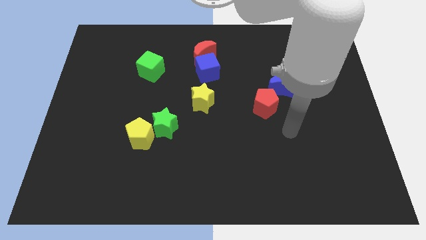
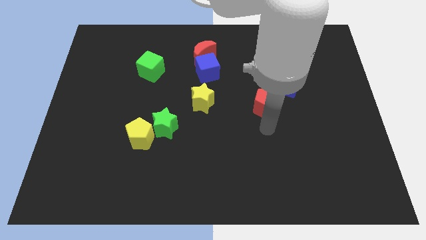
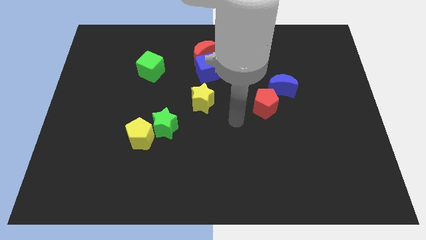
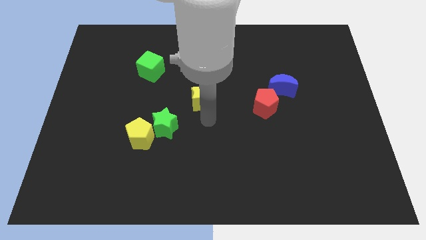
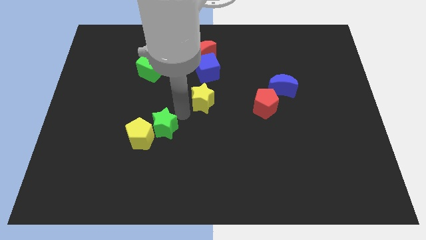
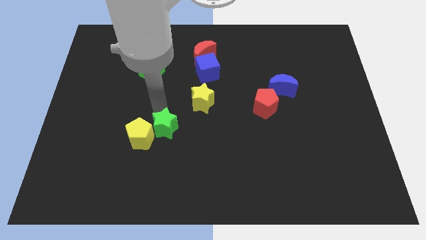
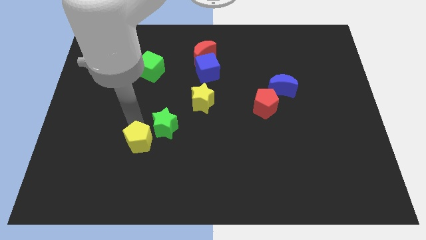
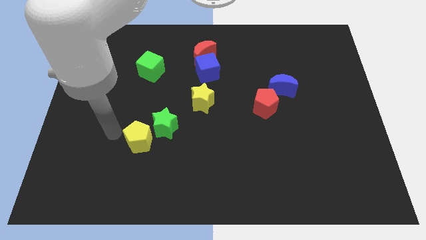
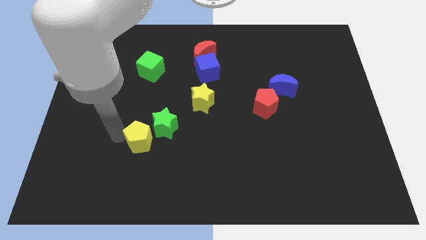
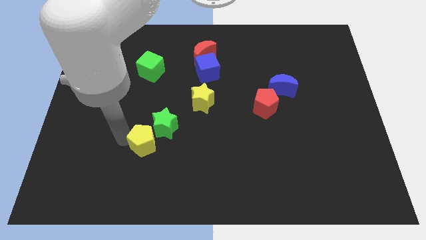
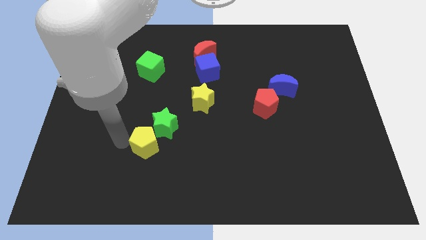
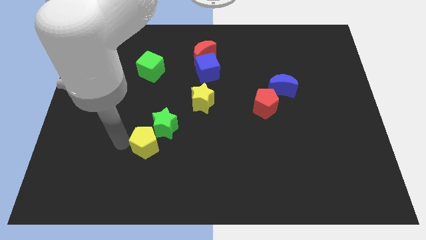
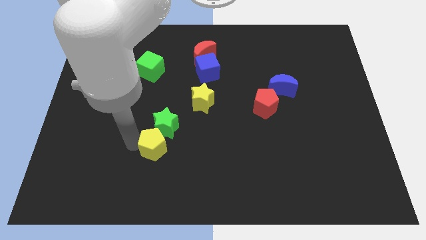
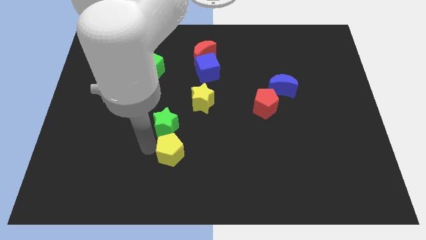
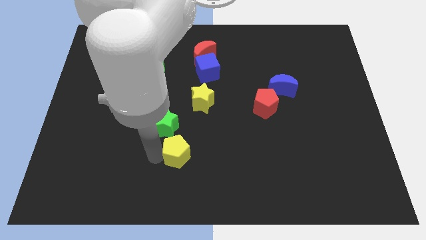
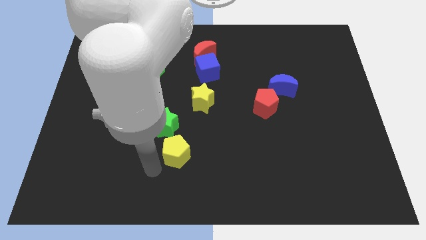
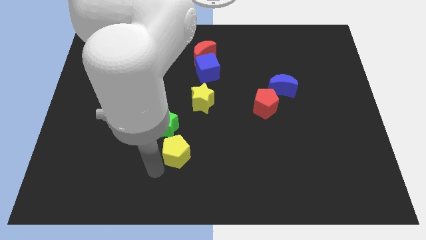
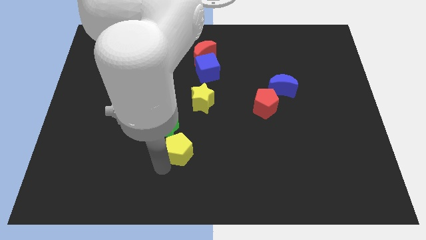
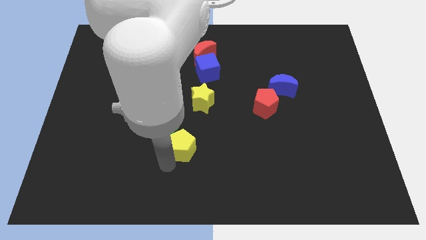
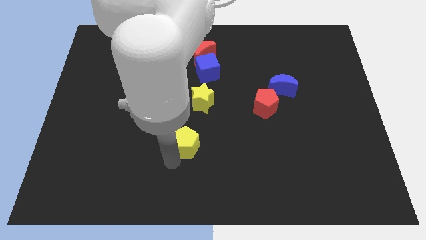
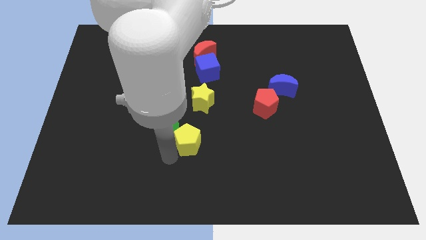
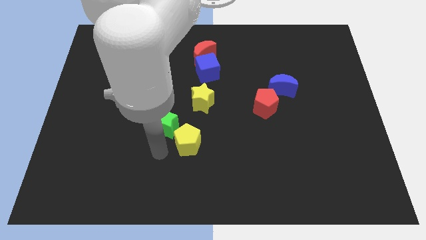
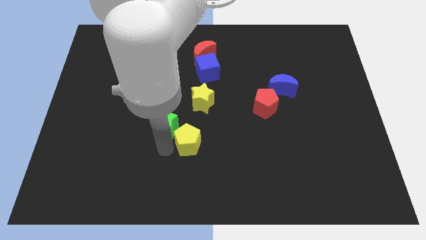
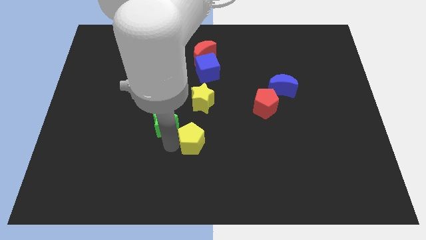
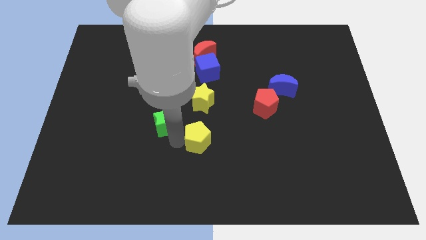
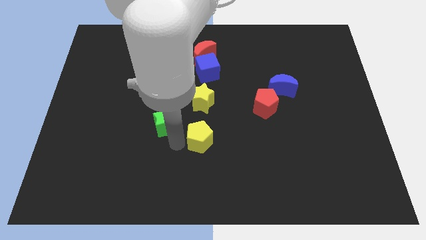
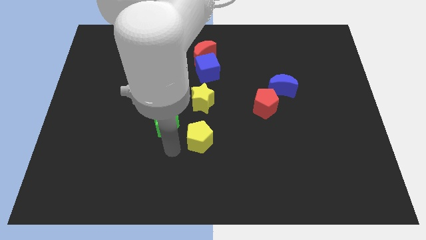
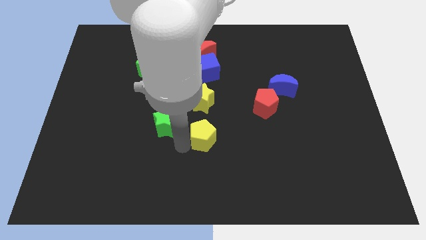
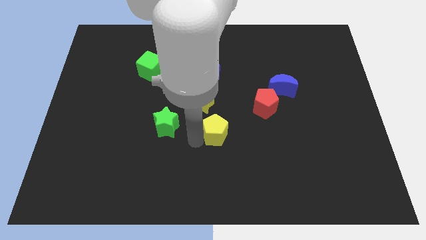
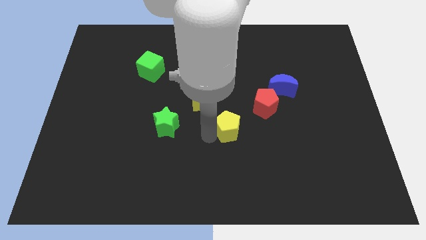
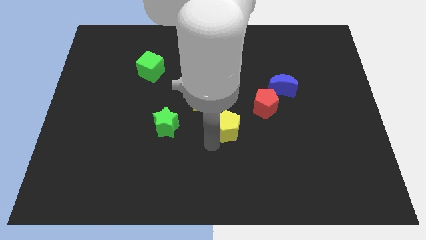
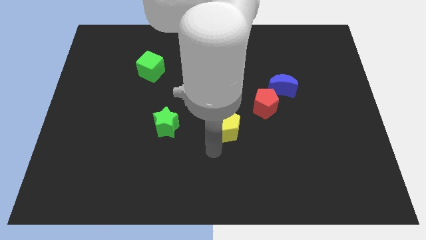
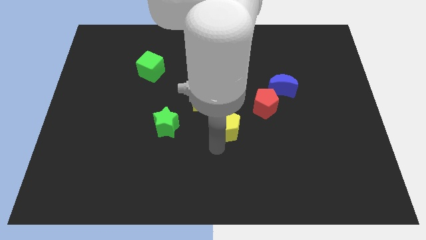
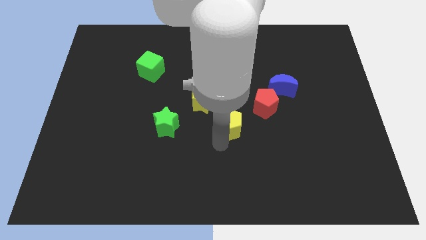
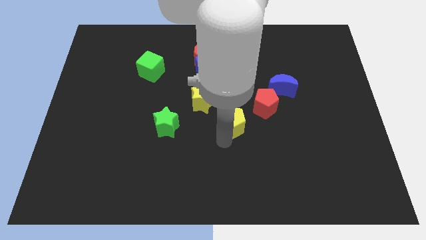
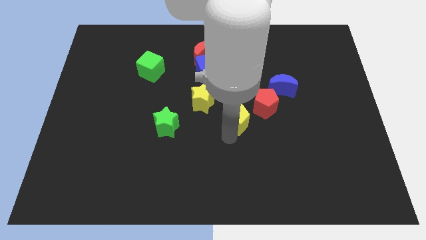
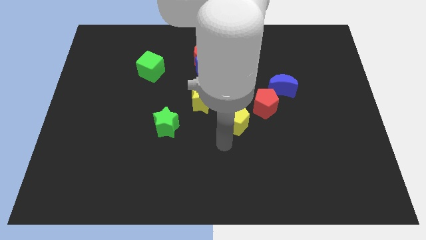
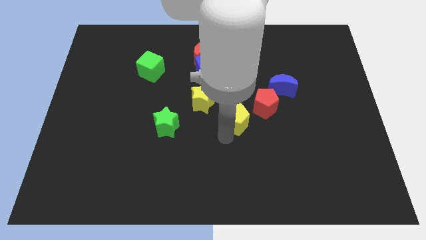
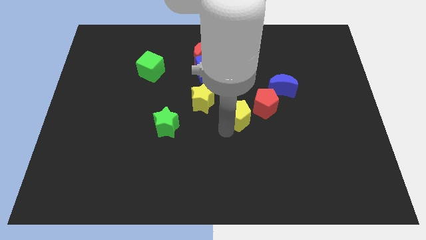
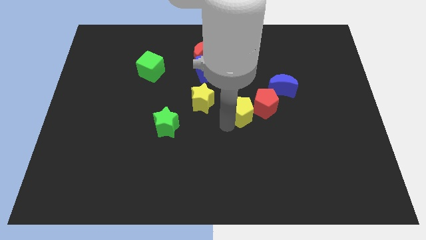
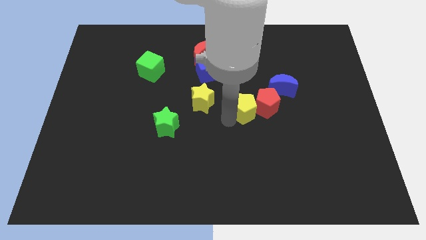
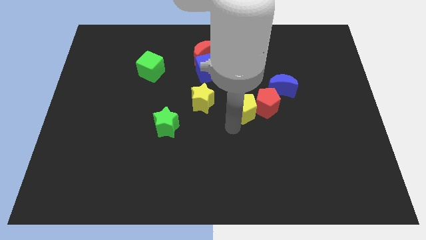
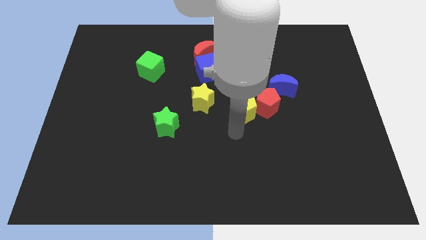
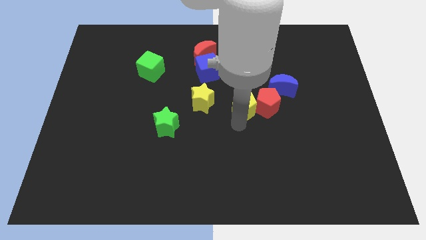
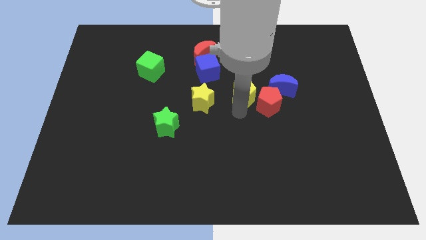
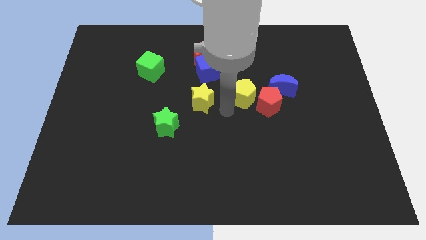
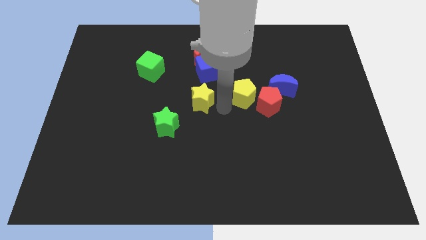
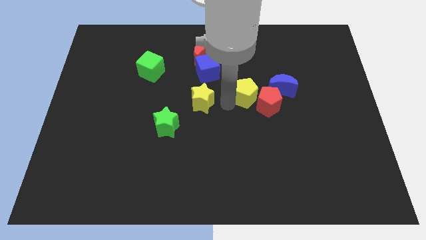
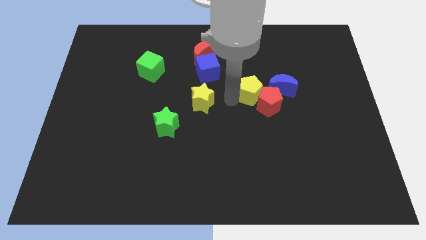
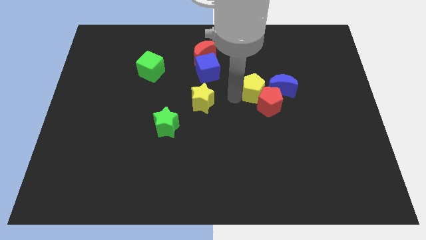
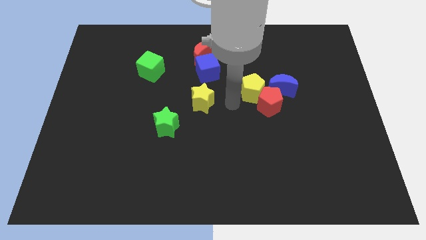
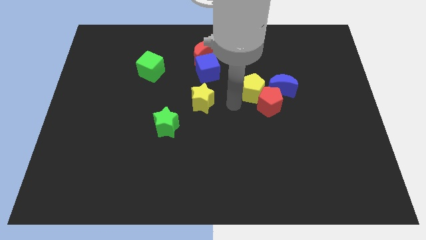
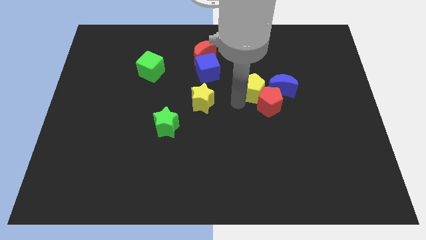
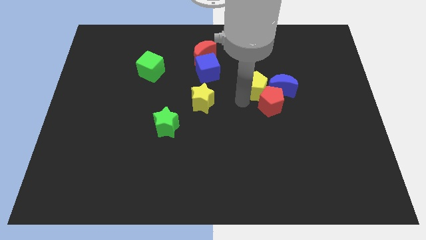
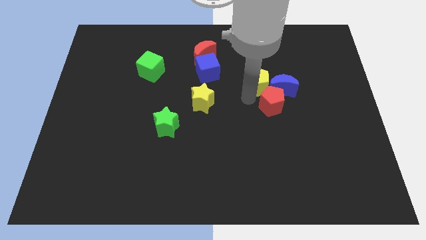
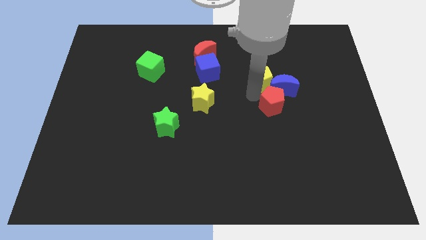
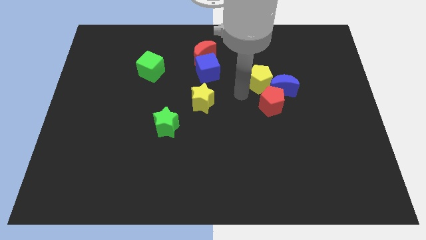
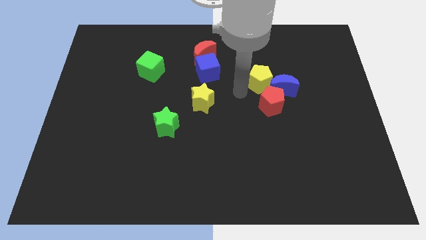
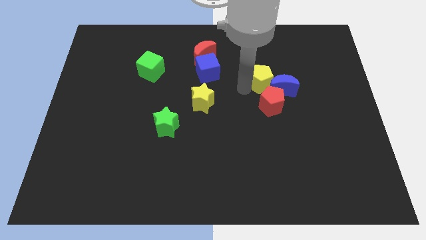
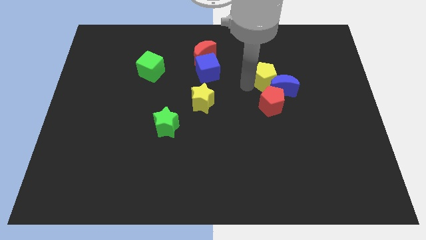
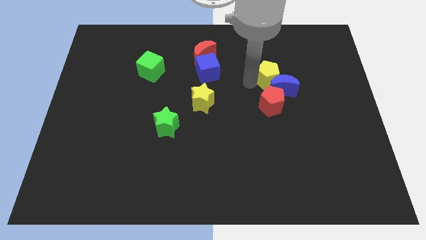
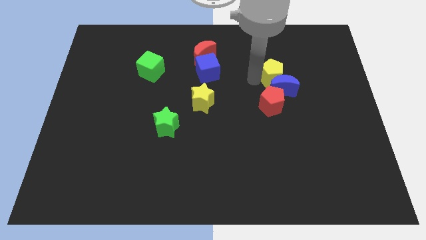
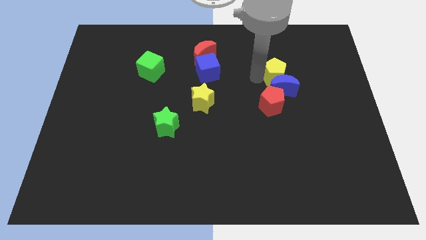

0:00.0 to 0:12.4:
move the yellow pentagon diagonally up and to the right of the blue moon

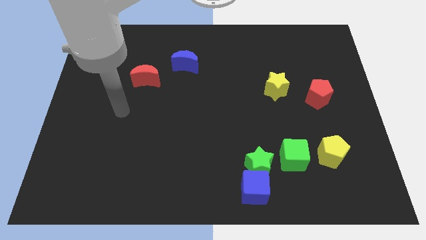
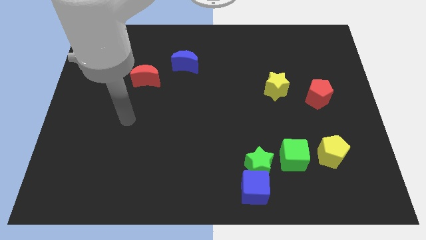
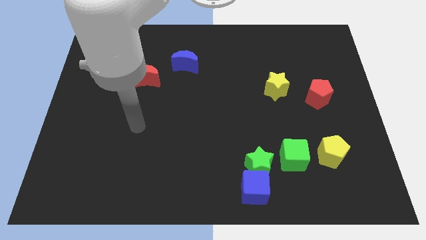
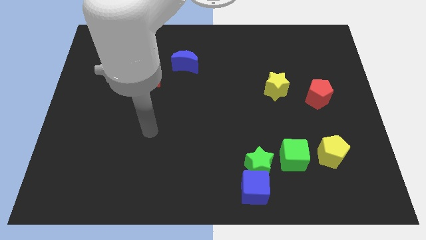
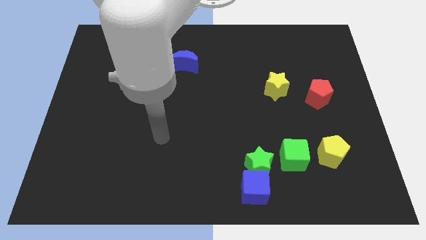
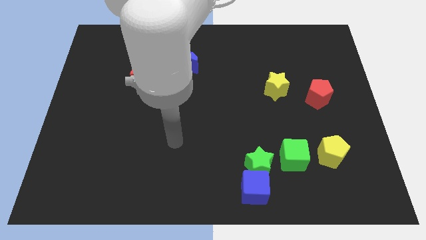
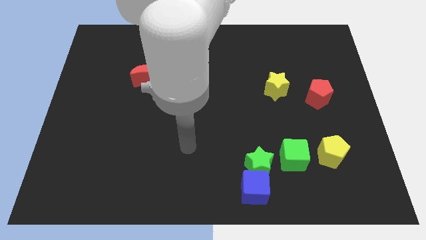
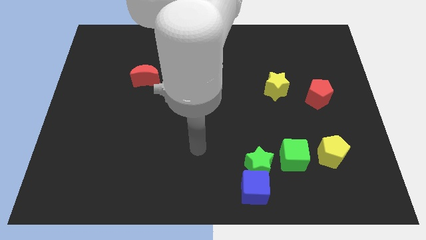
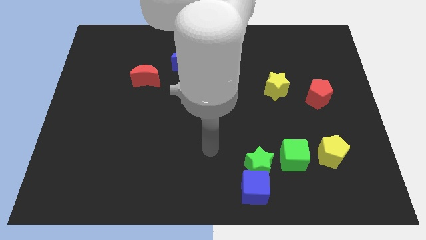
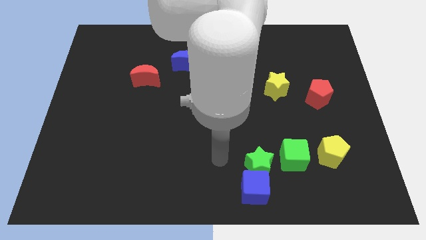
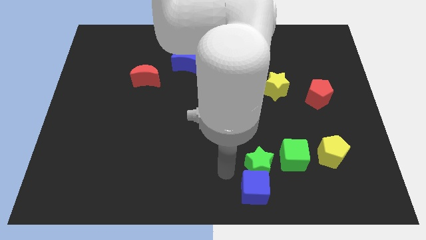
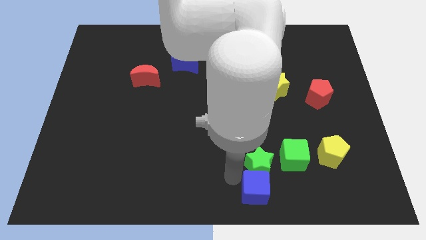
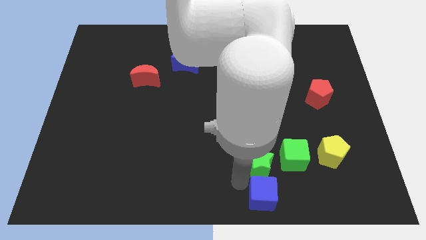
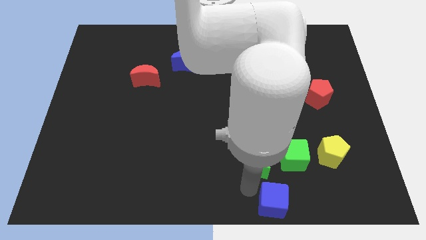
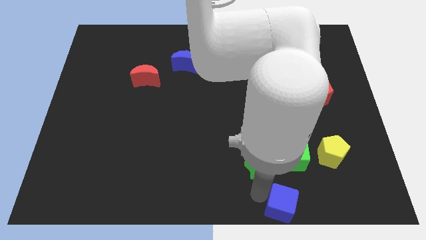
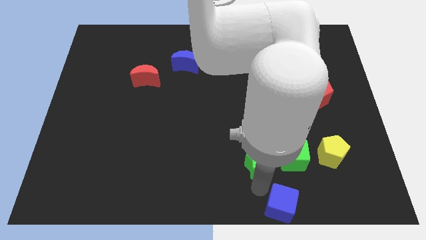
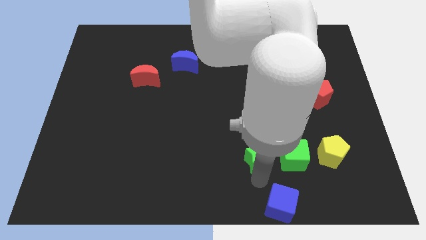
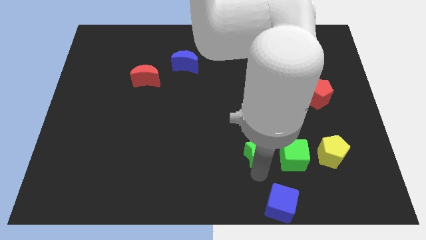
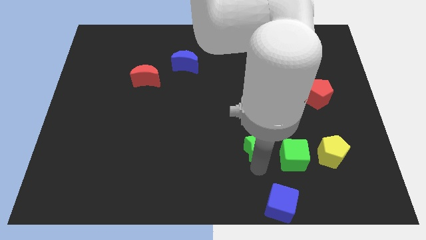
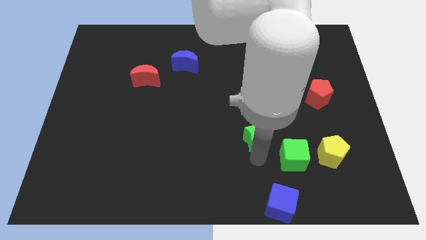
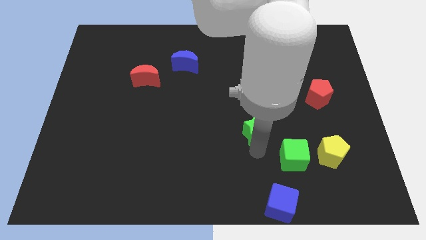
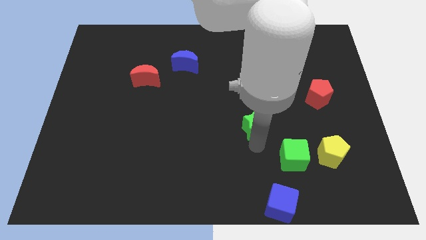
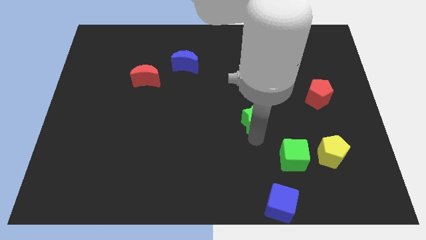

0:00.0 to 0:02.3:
put the green star to the bottom left of the yellow star
